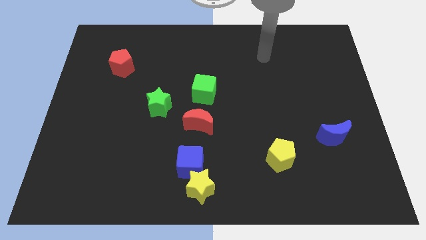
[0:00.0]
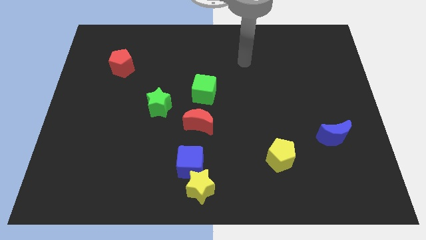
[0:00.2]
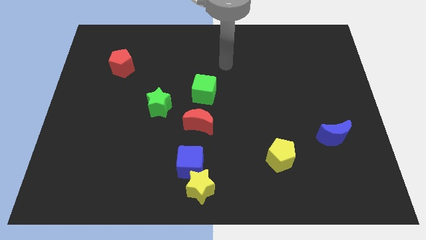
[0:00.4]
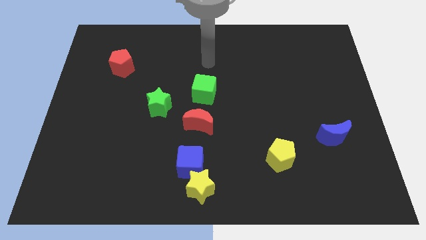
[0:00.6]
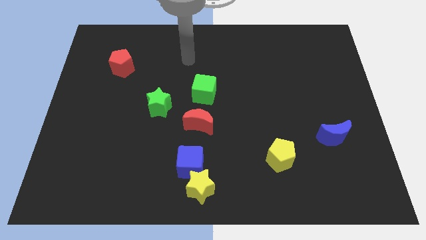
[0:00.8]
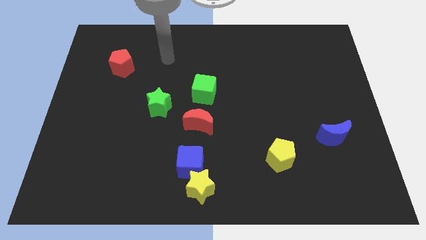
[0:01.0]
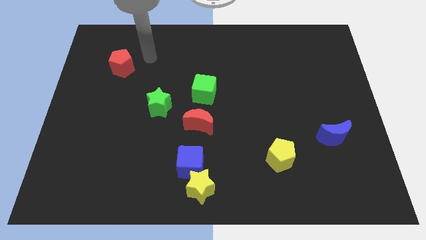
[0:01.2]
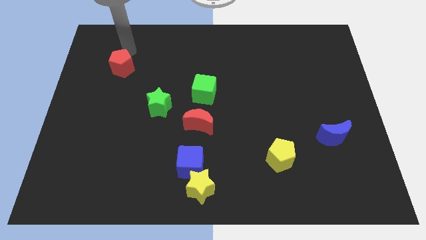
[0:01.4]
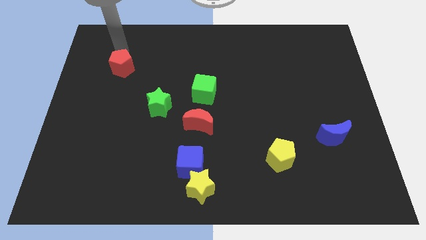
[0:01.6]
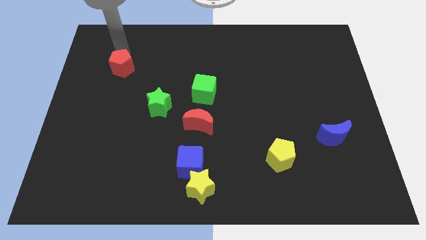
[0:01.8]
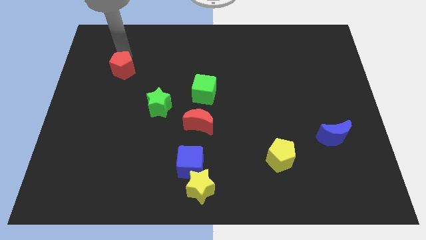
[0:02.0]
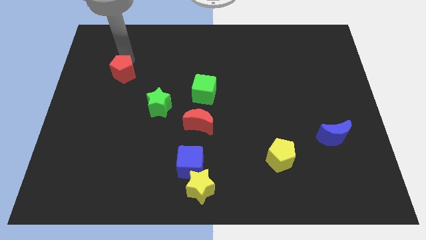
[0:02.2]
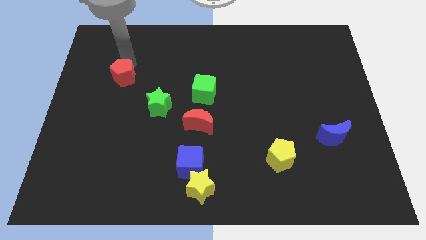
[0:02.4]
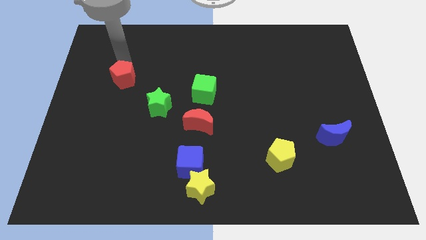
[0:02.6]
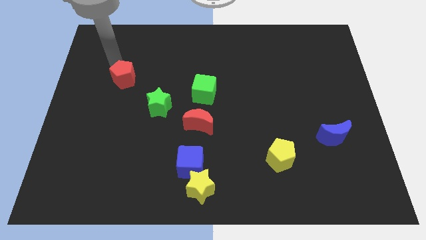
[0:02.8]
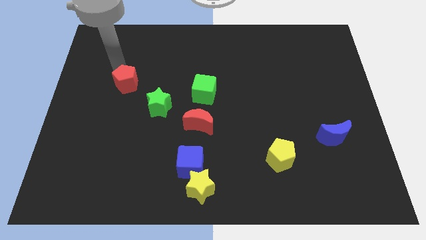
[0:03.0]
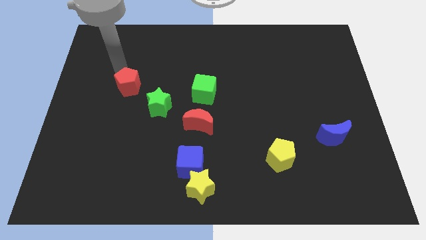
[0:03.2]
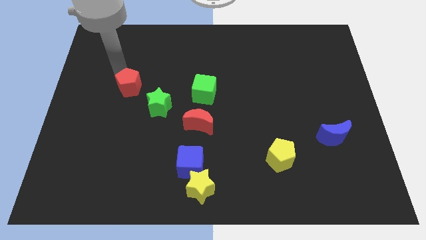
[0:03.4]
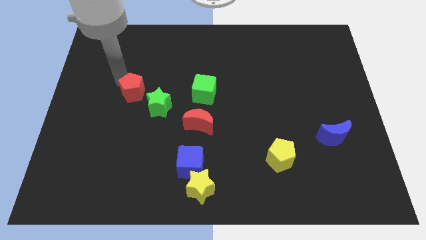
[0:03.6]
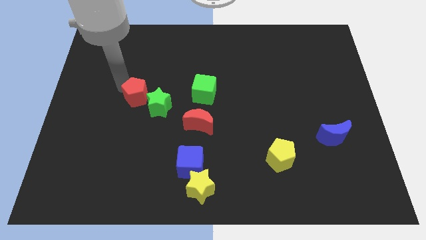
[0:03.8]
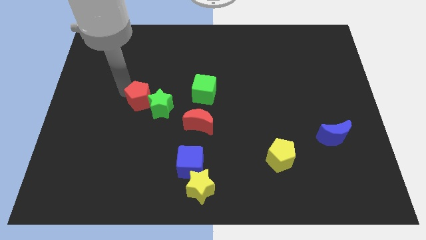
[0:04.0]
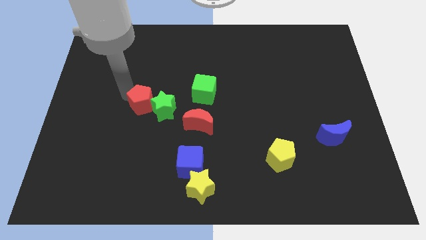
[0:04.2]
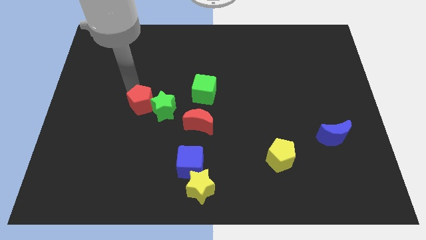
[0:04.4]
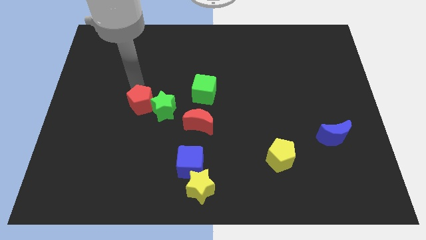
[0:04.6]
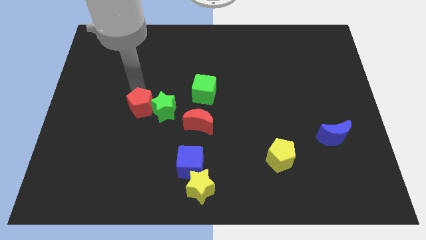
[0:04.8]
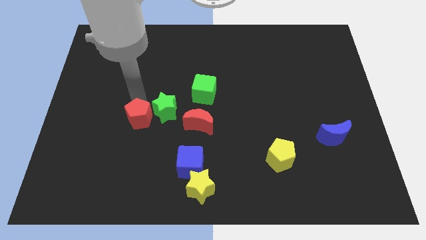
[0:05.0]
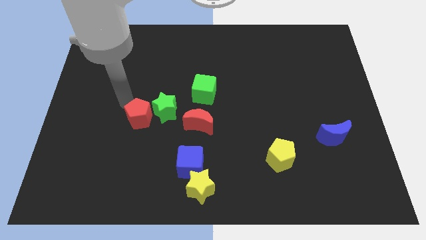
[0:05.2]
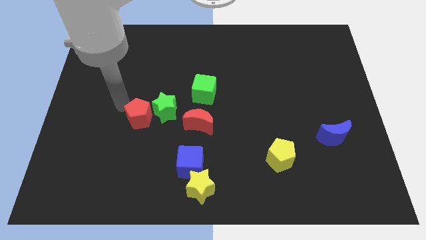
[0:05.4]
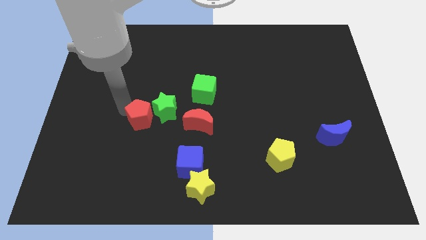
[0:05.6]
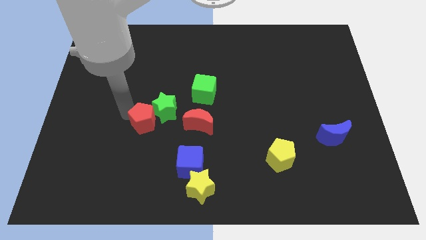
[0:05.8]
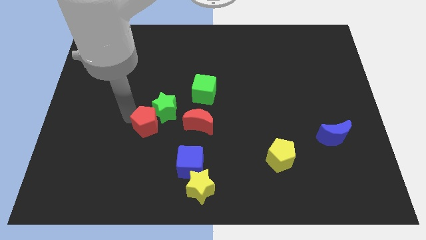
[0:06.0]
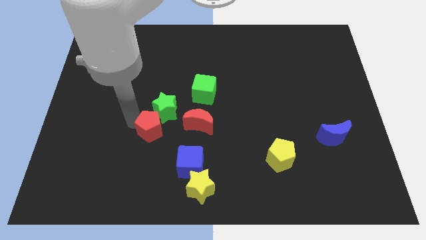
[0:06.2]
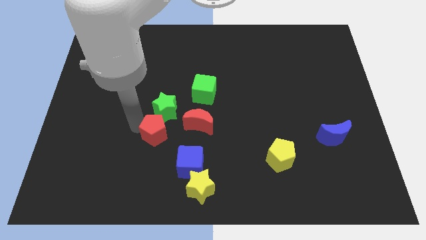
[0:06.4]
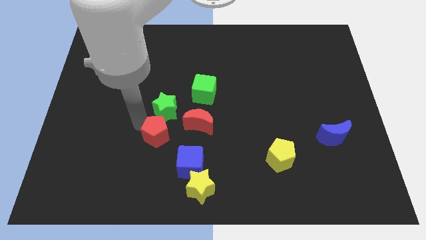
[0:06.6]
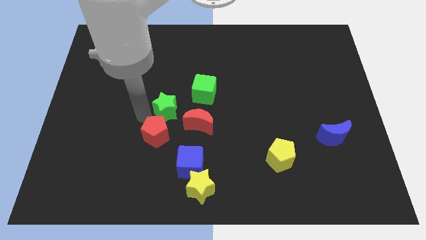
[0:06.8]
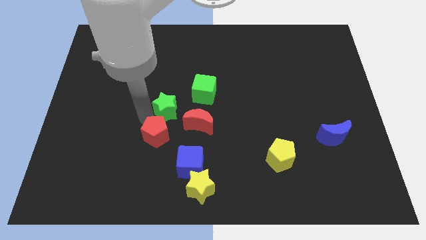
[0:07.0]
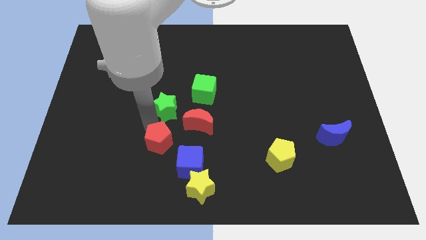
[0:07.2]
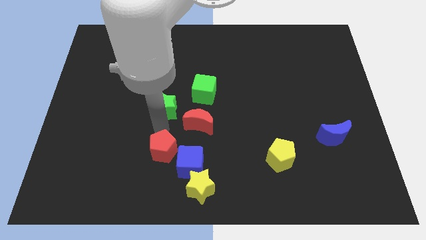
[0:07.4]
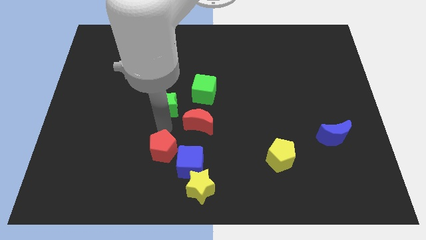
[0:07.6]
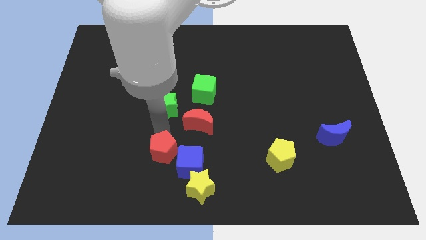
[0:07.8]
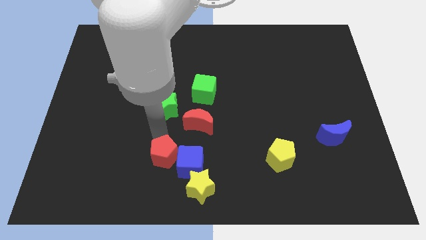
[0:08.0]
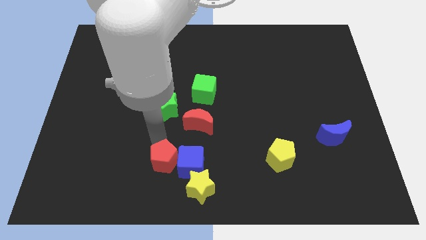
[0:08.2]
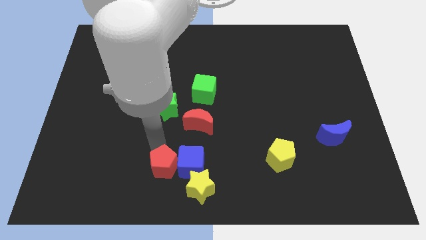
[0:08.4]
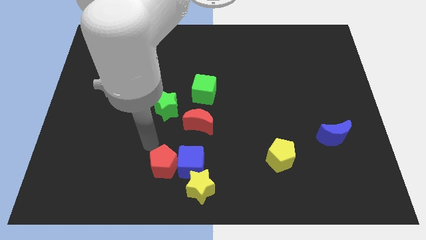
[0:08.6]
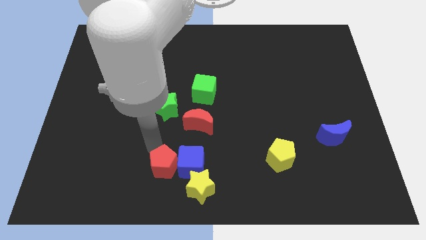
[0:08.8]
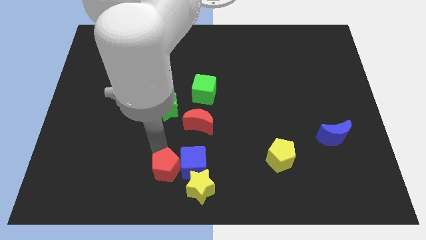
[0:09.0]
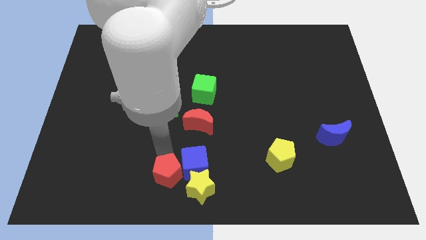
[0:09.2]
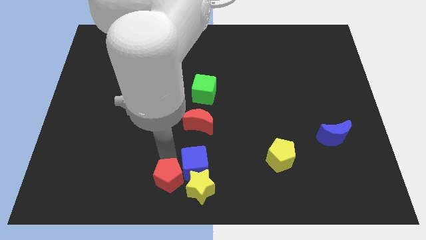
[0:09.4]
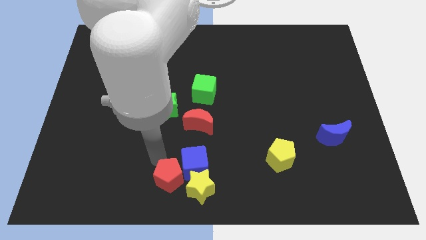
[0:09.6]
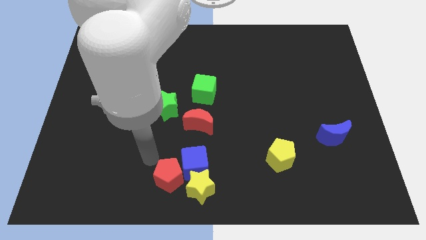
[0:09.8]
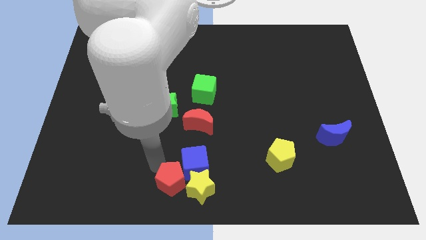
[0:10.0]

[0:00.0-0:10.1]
put the red pentagon close to the yellow star

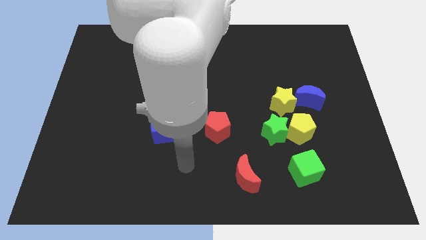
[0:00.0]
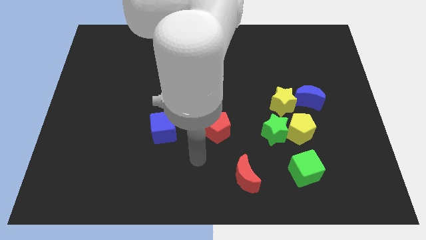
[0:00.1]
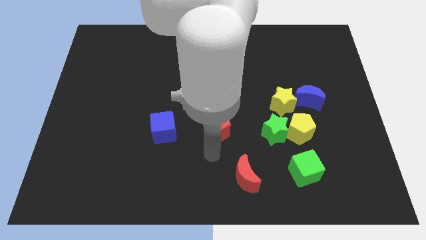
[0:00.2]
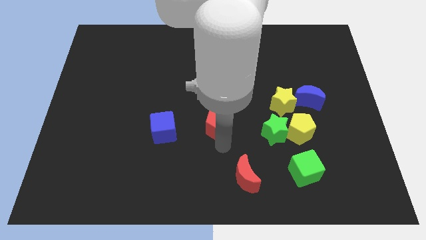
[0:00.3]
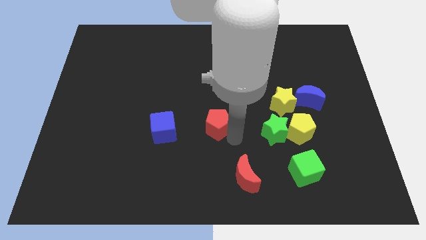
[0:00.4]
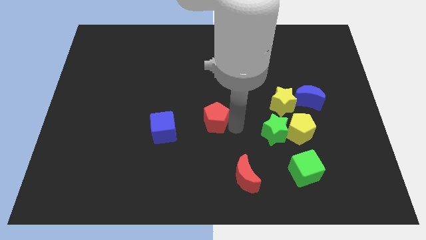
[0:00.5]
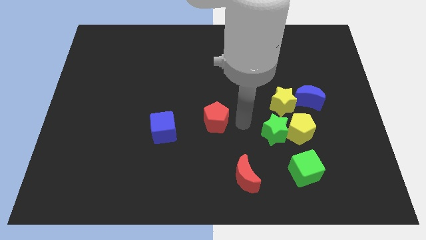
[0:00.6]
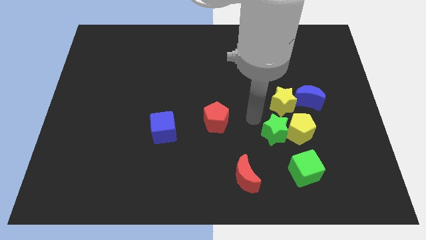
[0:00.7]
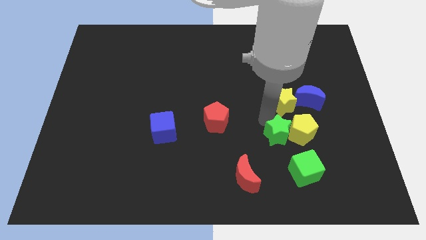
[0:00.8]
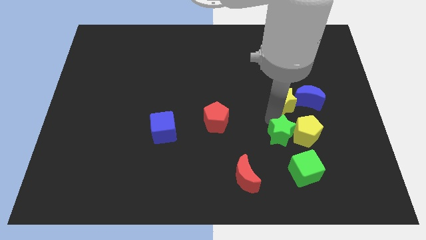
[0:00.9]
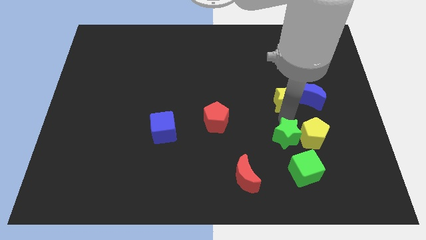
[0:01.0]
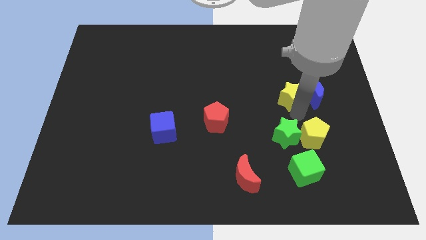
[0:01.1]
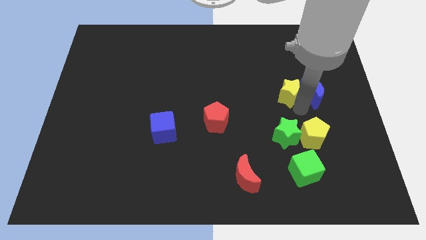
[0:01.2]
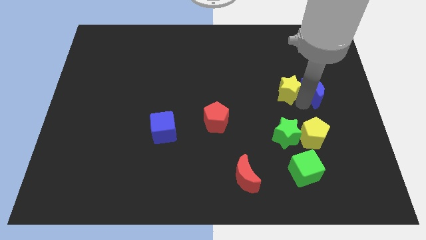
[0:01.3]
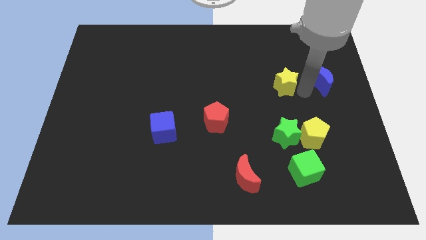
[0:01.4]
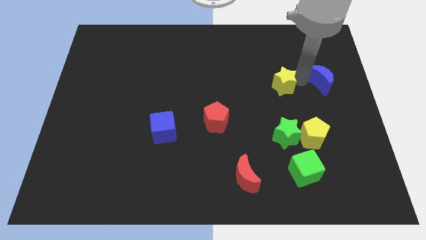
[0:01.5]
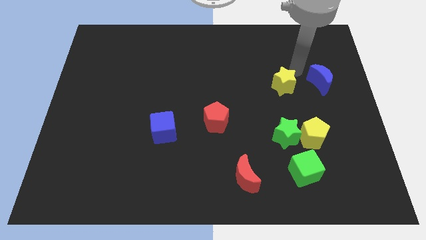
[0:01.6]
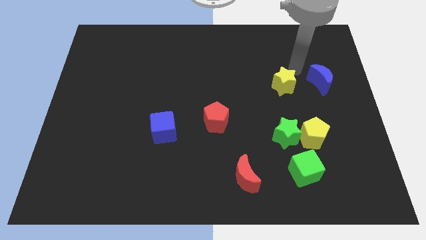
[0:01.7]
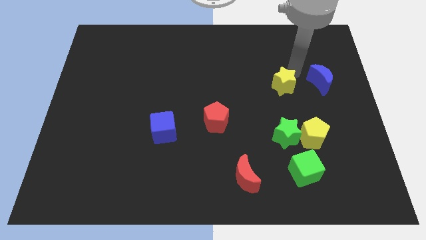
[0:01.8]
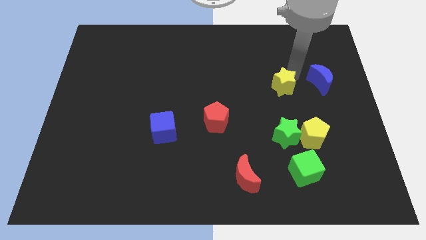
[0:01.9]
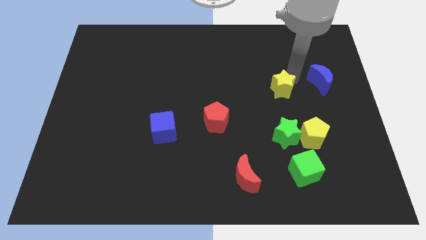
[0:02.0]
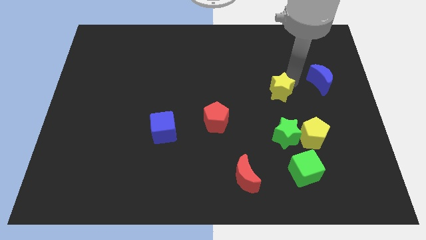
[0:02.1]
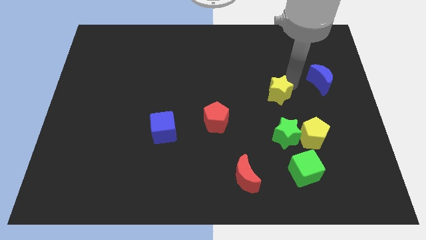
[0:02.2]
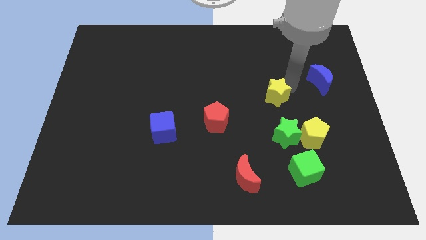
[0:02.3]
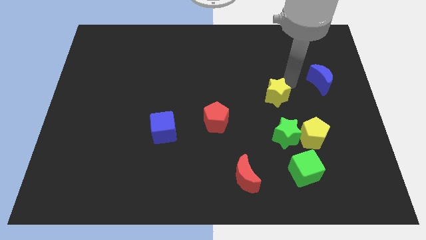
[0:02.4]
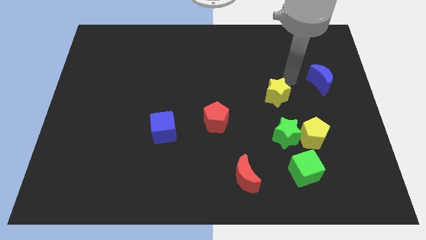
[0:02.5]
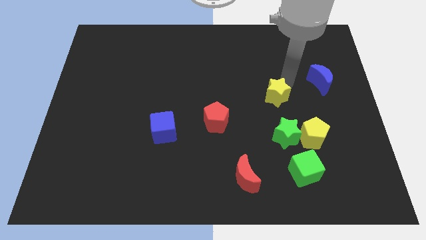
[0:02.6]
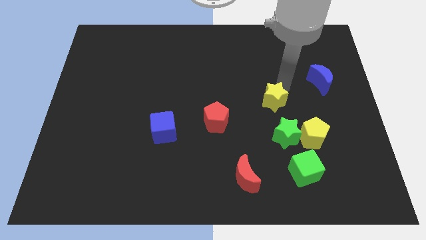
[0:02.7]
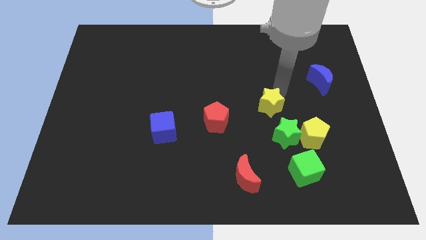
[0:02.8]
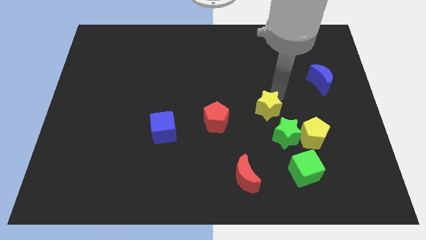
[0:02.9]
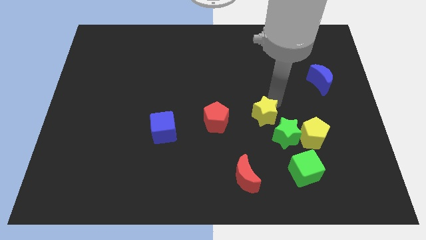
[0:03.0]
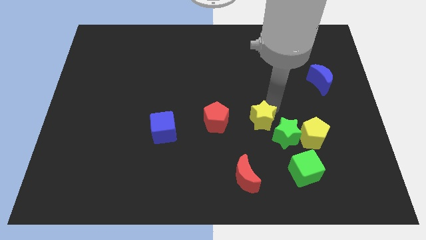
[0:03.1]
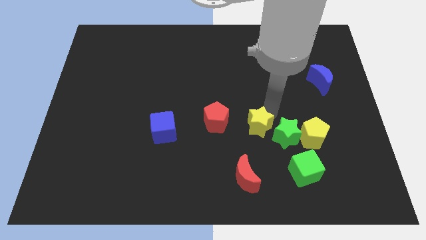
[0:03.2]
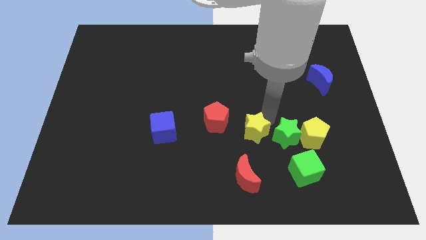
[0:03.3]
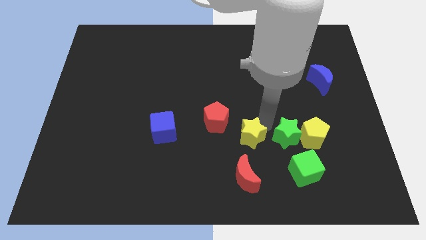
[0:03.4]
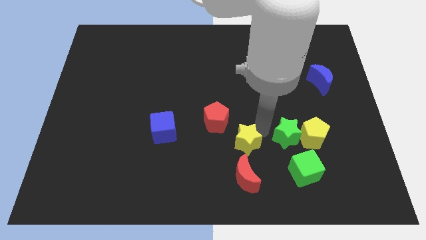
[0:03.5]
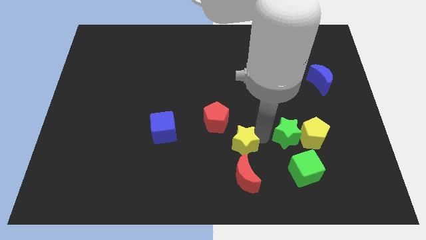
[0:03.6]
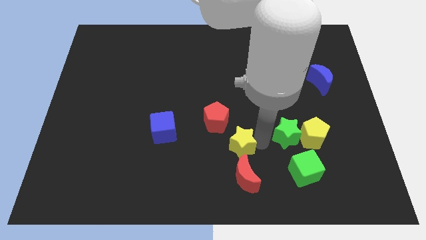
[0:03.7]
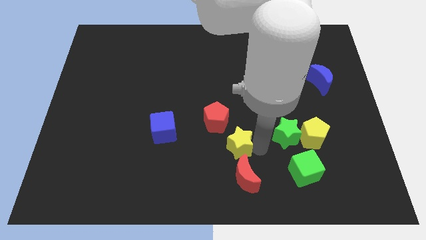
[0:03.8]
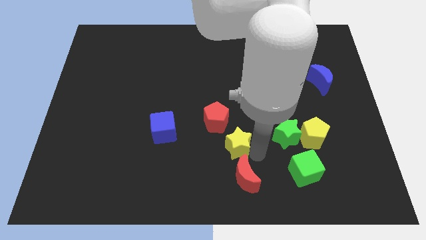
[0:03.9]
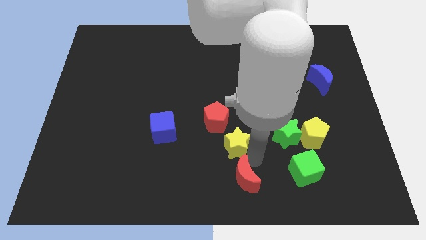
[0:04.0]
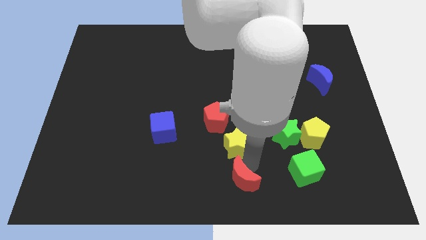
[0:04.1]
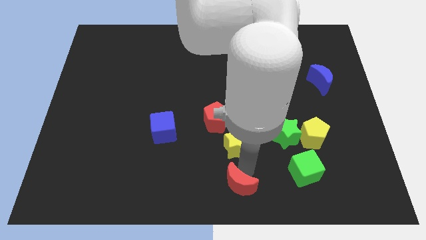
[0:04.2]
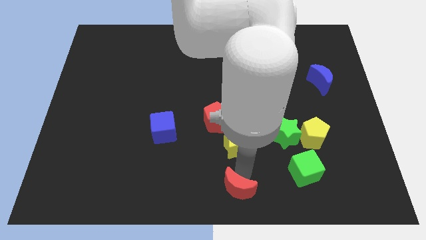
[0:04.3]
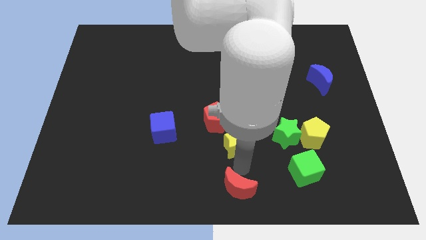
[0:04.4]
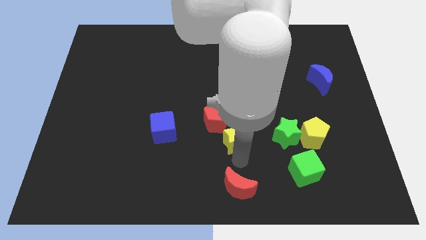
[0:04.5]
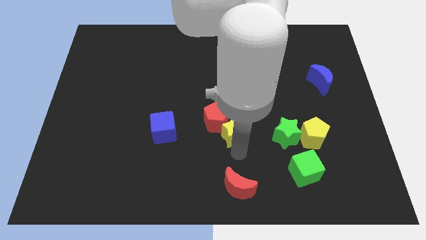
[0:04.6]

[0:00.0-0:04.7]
push the yellow star next to the red pentagon
